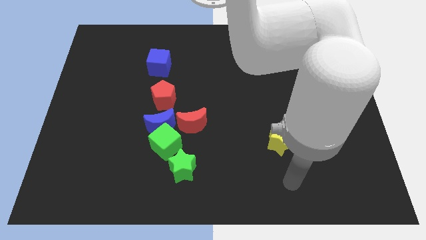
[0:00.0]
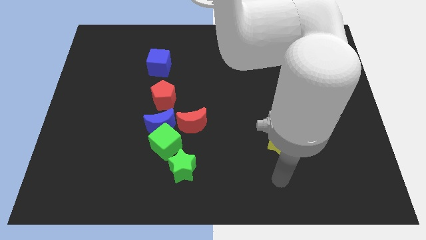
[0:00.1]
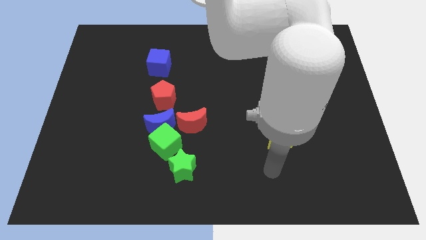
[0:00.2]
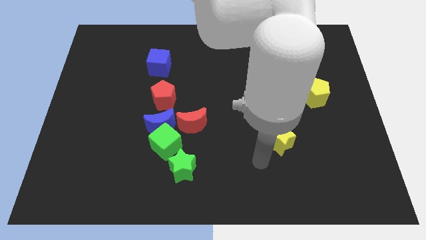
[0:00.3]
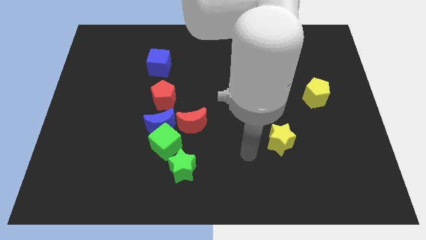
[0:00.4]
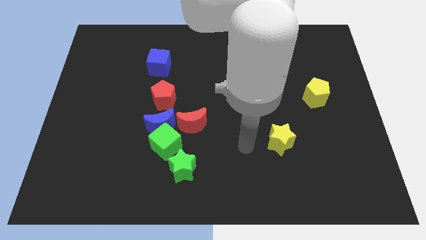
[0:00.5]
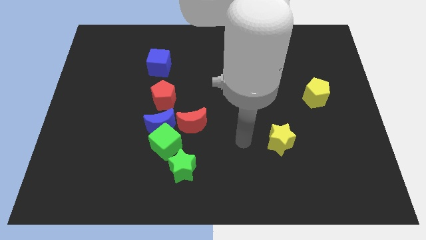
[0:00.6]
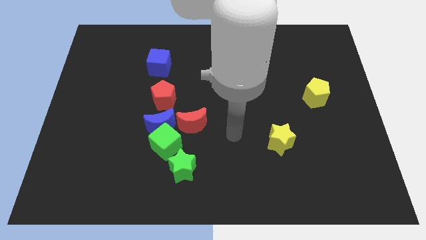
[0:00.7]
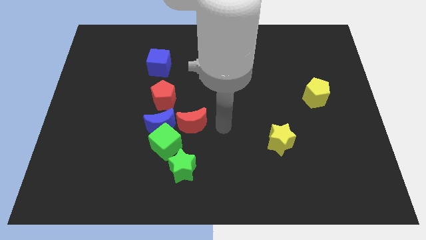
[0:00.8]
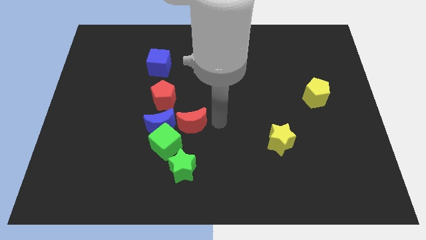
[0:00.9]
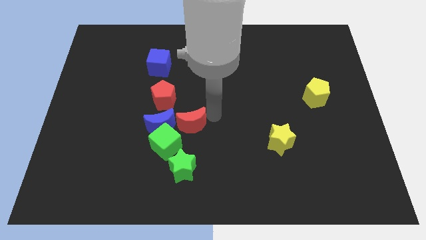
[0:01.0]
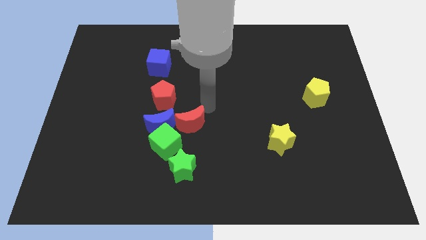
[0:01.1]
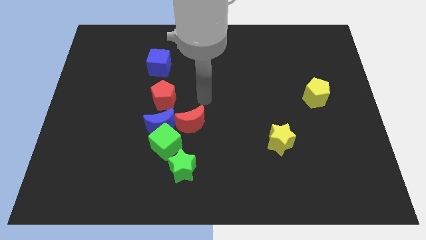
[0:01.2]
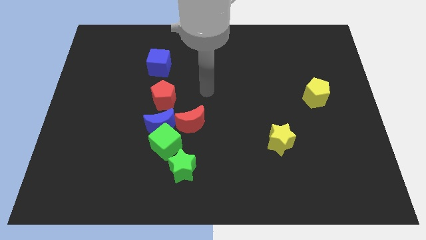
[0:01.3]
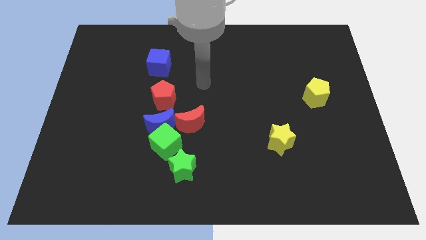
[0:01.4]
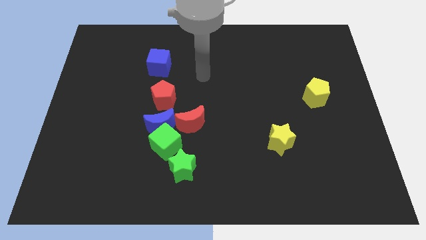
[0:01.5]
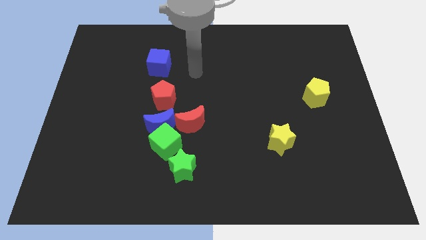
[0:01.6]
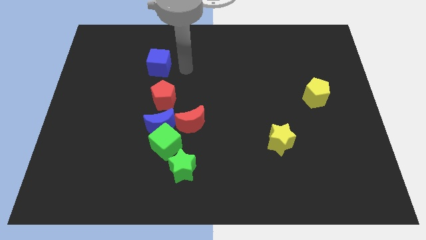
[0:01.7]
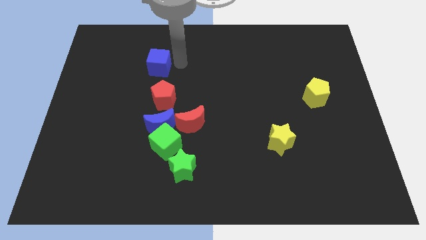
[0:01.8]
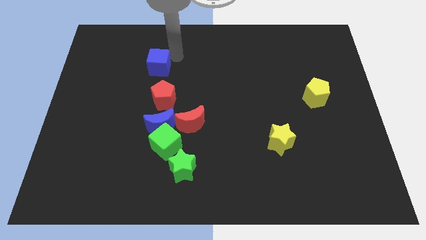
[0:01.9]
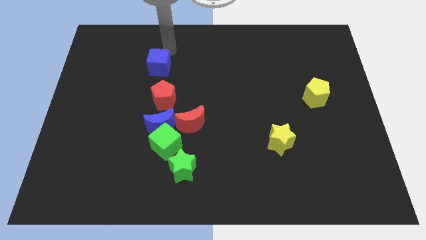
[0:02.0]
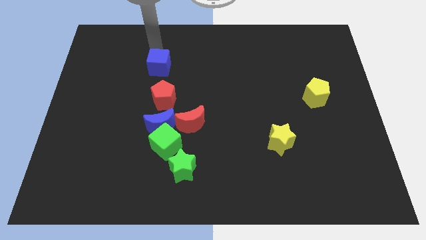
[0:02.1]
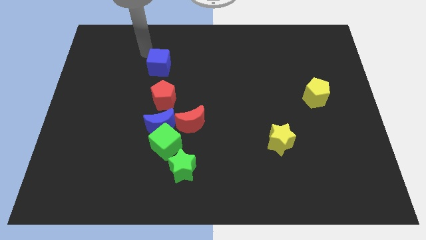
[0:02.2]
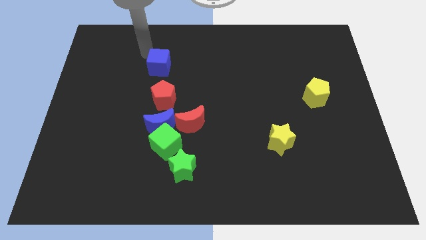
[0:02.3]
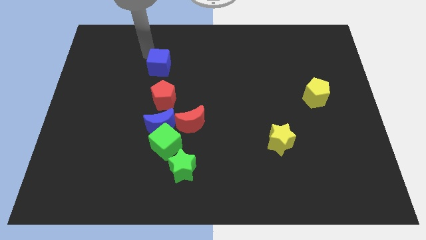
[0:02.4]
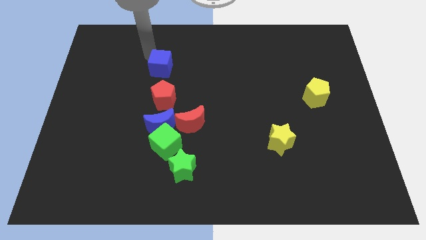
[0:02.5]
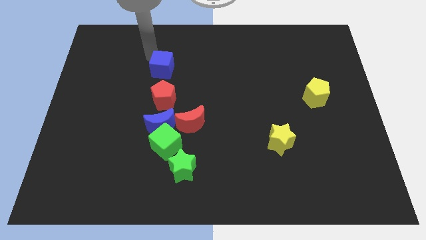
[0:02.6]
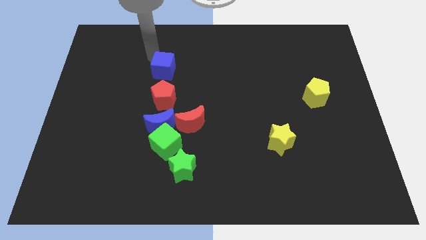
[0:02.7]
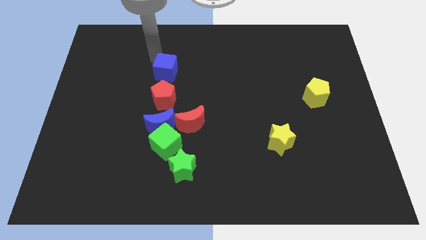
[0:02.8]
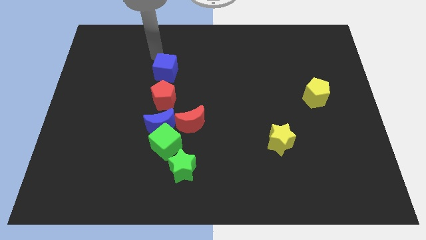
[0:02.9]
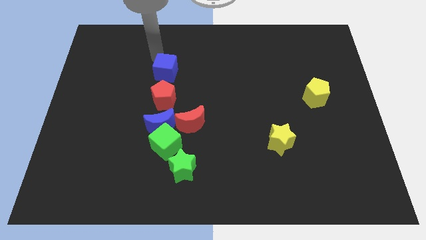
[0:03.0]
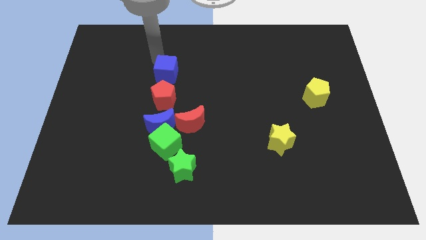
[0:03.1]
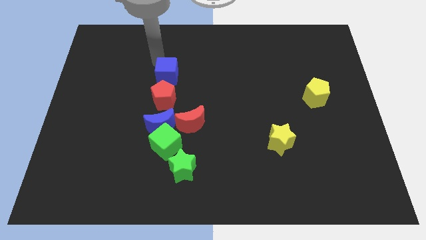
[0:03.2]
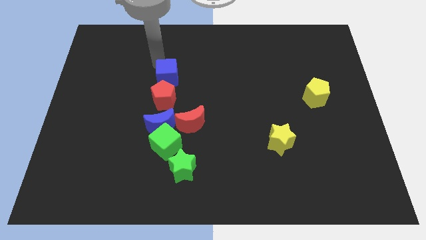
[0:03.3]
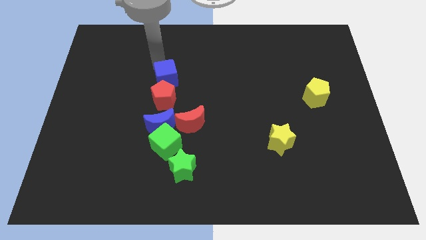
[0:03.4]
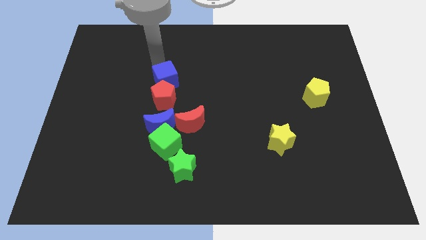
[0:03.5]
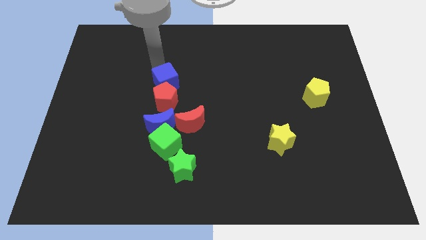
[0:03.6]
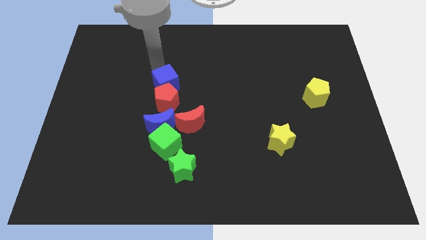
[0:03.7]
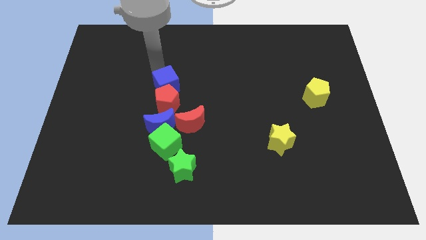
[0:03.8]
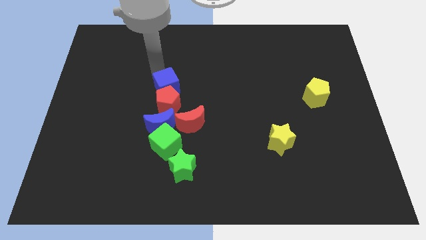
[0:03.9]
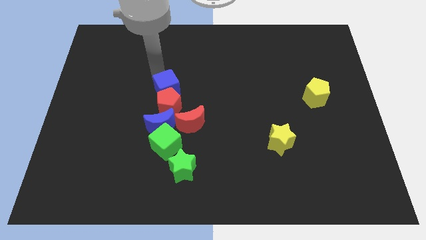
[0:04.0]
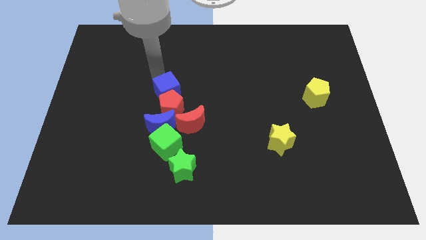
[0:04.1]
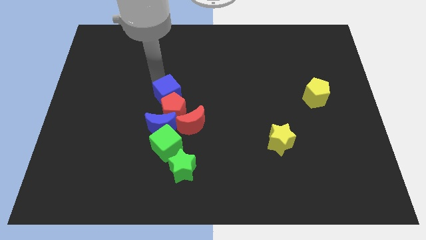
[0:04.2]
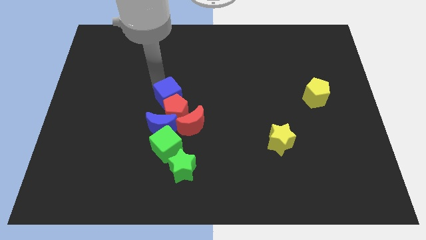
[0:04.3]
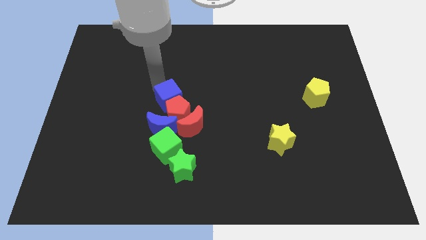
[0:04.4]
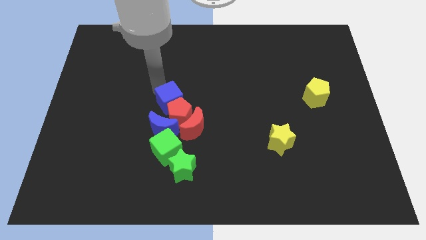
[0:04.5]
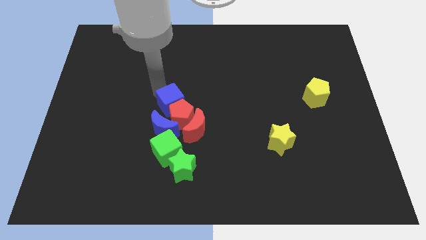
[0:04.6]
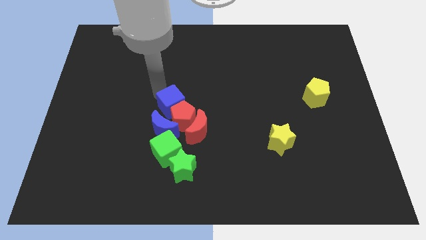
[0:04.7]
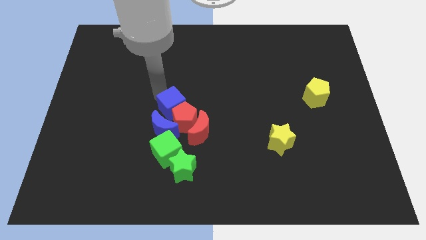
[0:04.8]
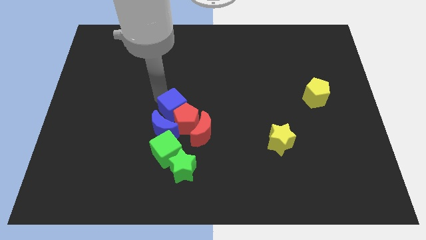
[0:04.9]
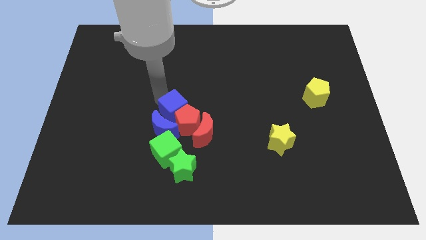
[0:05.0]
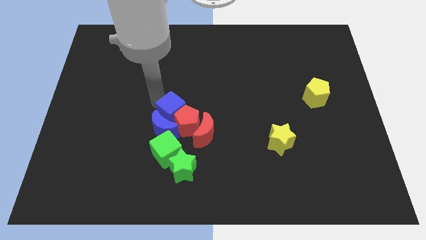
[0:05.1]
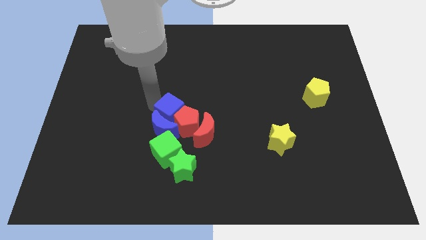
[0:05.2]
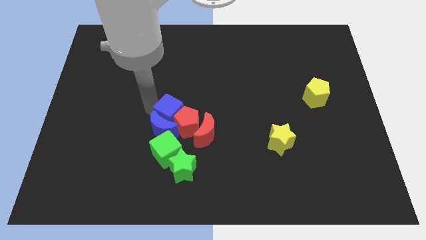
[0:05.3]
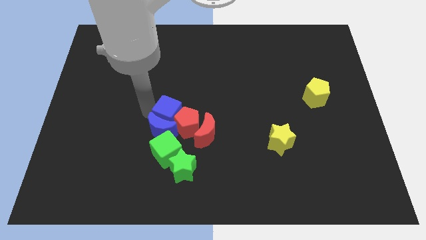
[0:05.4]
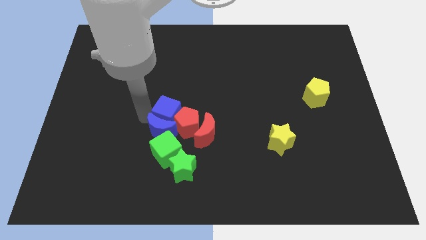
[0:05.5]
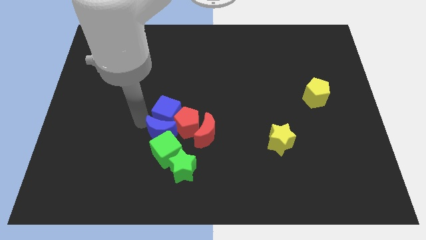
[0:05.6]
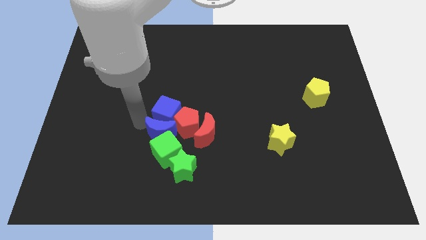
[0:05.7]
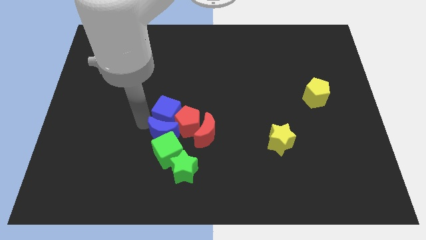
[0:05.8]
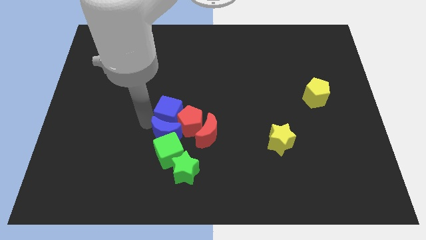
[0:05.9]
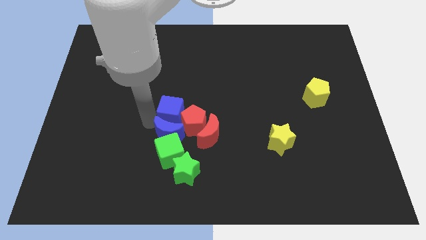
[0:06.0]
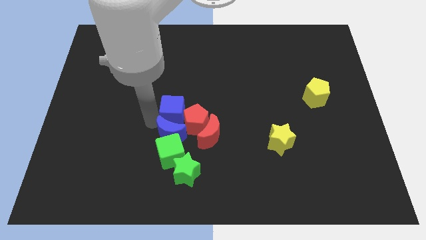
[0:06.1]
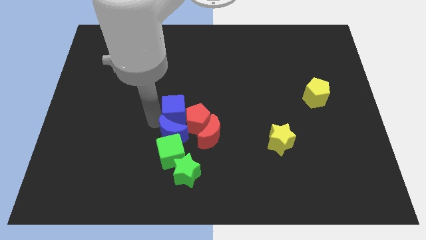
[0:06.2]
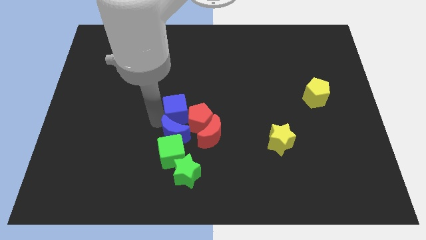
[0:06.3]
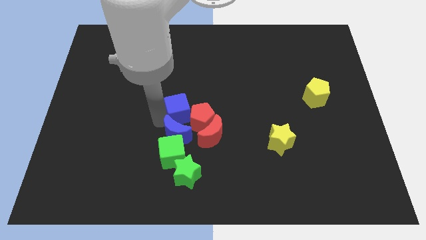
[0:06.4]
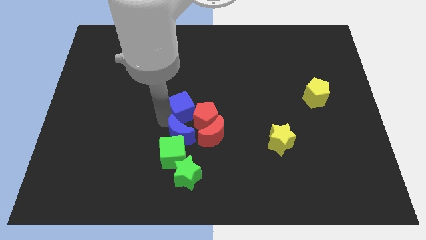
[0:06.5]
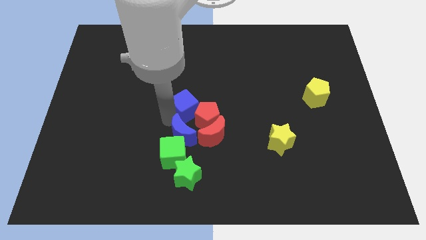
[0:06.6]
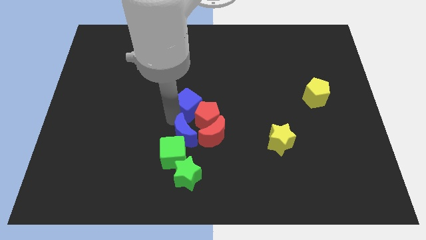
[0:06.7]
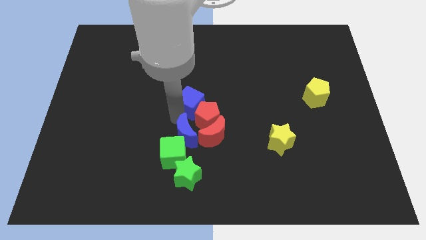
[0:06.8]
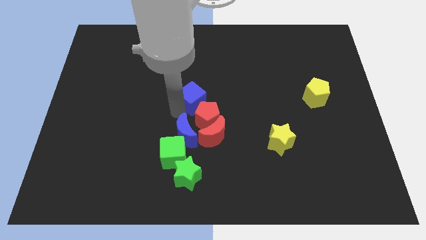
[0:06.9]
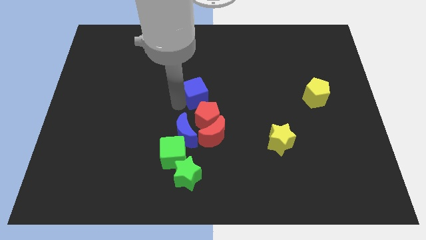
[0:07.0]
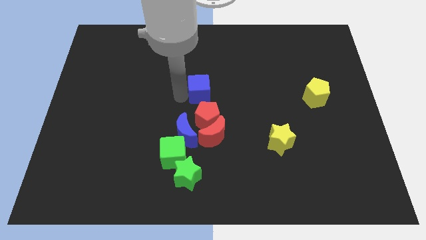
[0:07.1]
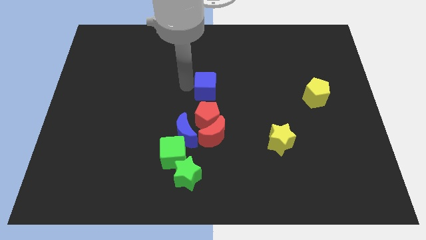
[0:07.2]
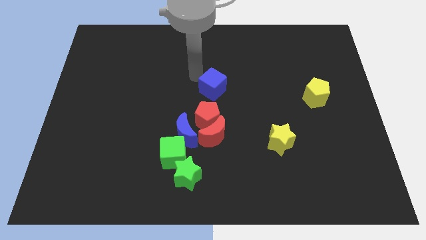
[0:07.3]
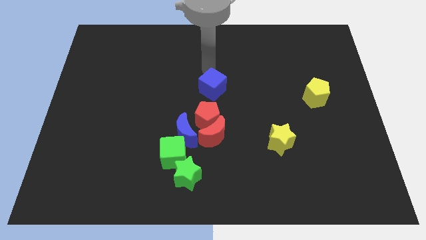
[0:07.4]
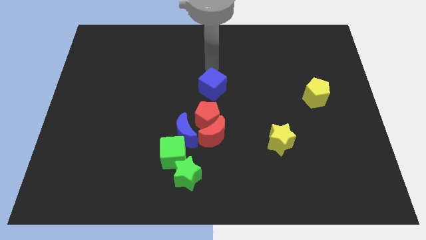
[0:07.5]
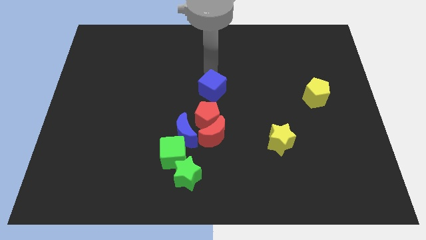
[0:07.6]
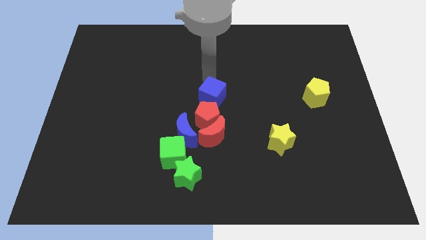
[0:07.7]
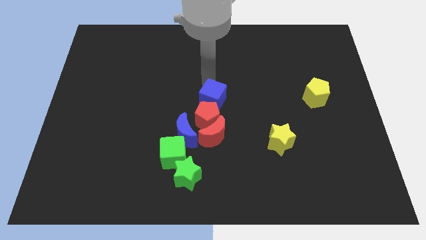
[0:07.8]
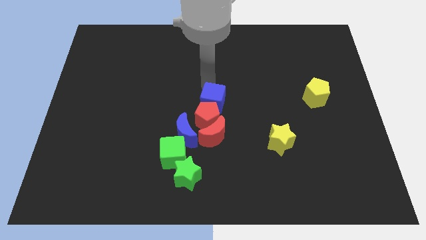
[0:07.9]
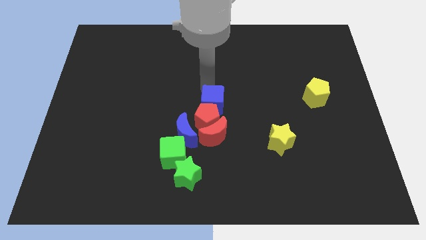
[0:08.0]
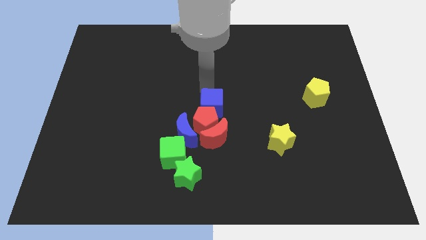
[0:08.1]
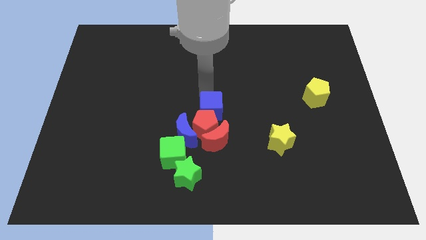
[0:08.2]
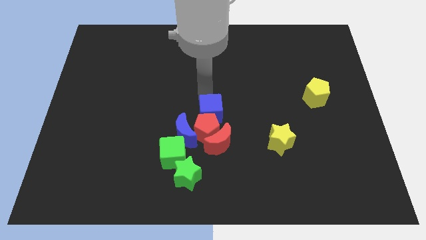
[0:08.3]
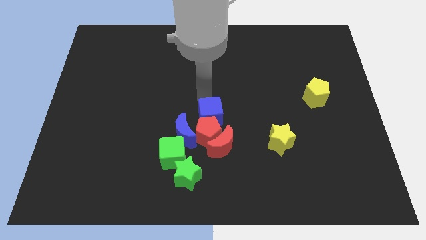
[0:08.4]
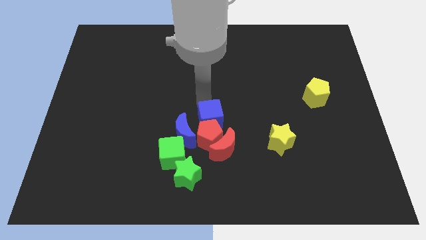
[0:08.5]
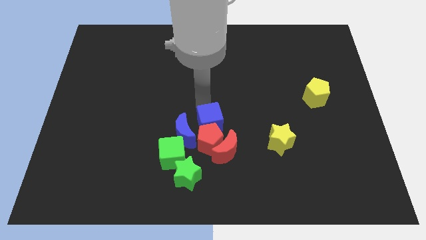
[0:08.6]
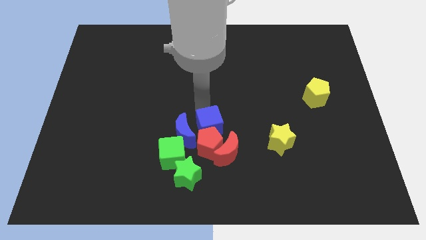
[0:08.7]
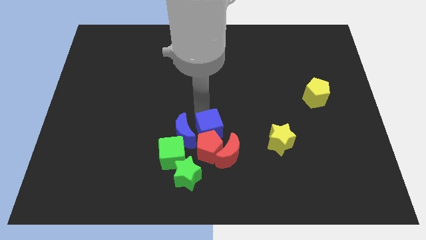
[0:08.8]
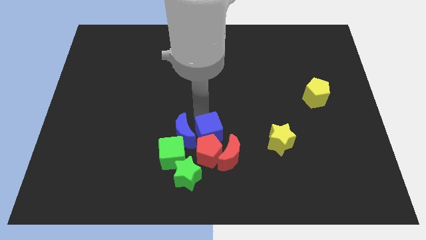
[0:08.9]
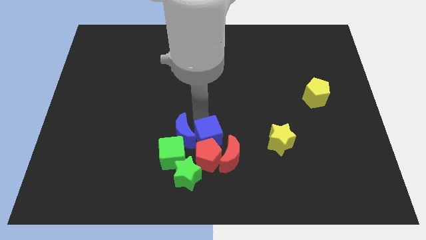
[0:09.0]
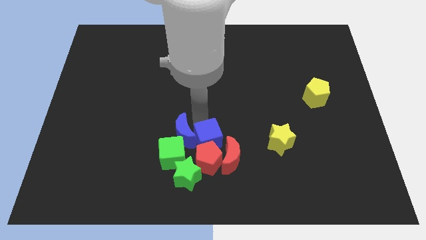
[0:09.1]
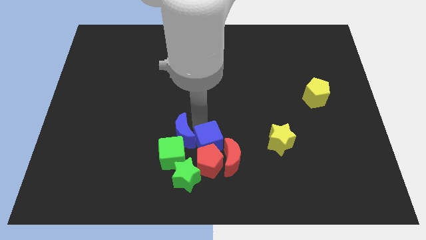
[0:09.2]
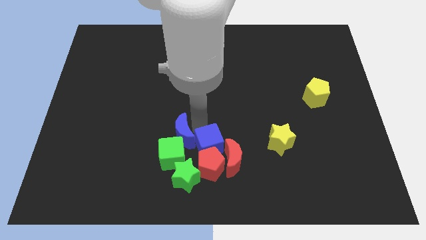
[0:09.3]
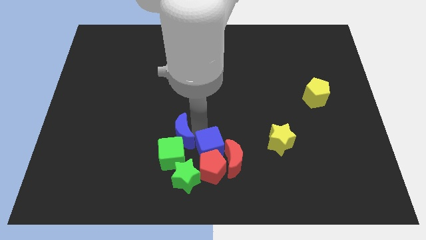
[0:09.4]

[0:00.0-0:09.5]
move the blue cube close to the red moon
